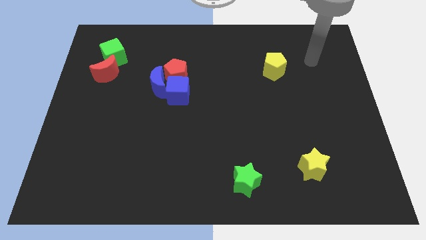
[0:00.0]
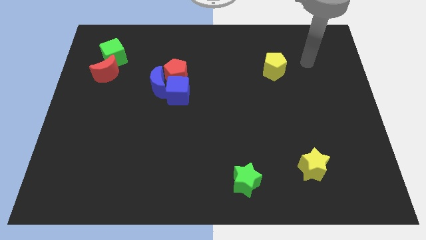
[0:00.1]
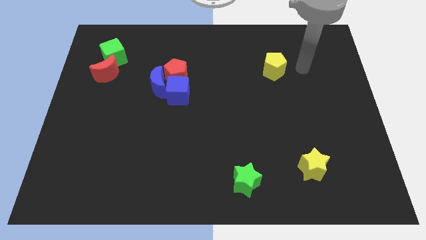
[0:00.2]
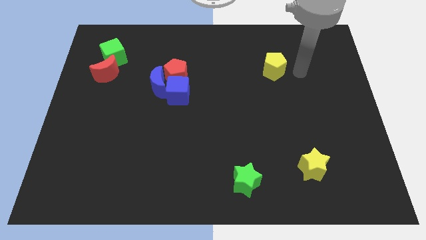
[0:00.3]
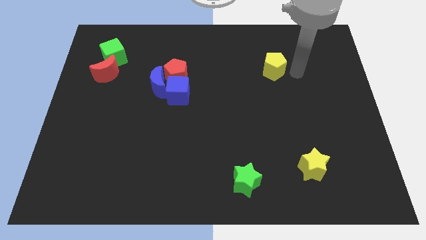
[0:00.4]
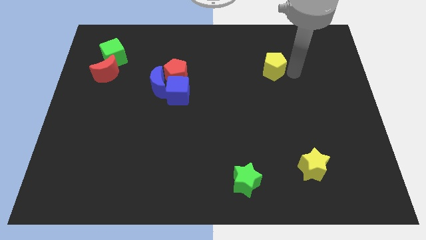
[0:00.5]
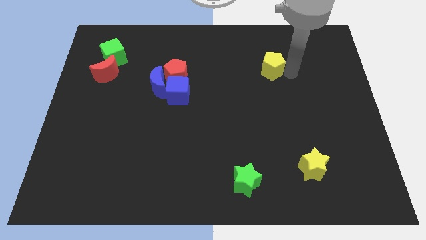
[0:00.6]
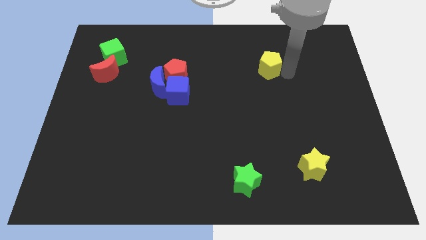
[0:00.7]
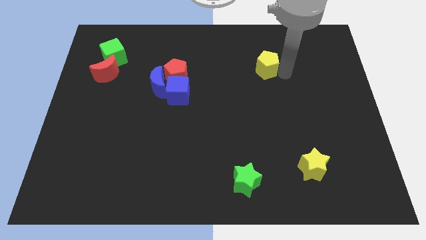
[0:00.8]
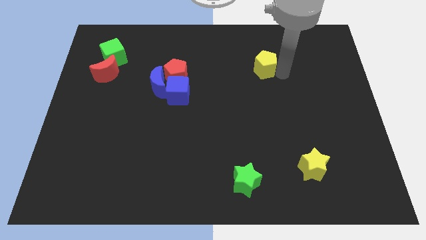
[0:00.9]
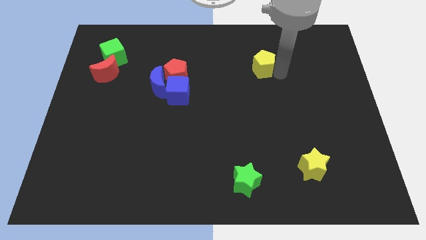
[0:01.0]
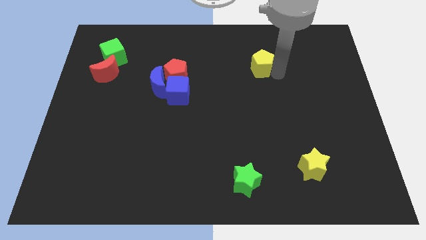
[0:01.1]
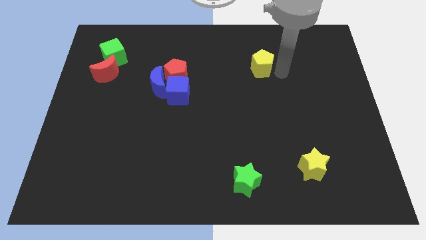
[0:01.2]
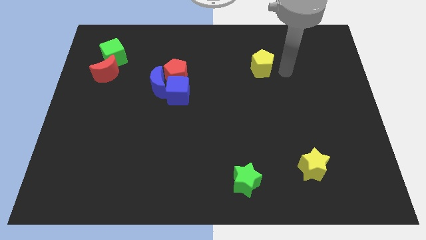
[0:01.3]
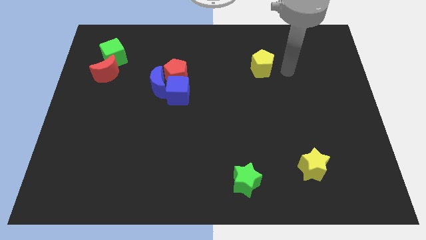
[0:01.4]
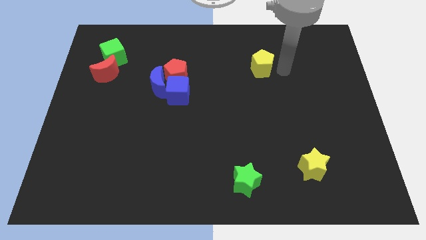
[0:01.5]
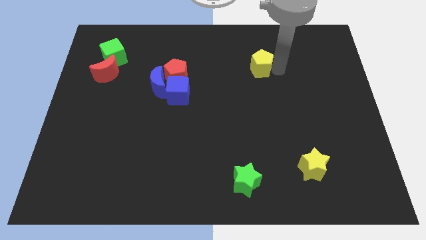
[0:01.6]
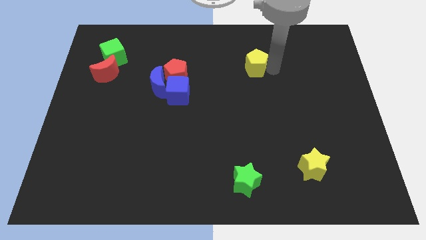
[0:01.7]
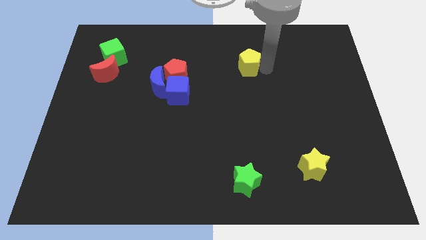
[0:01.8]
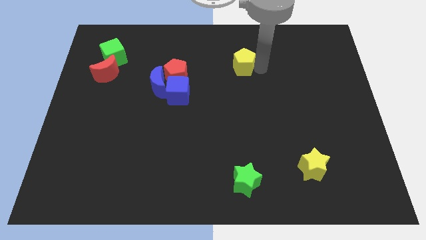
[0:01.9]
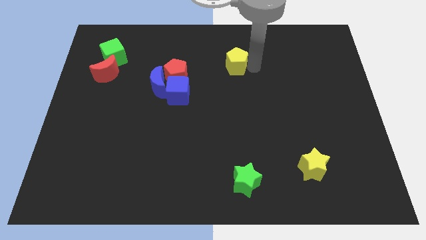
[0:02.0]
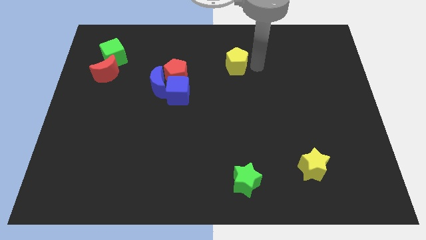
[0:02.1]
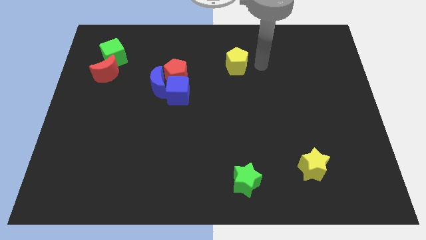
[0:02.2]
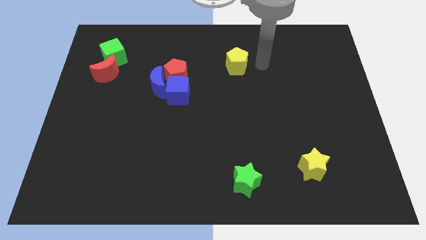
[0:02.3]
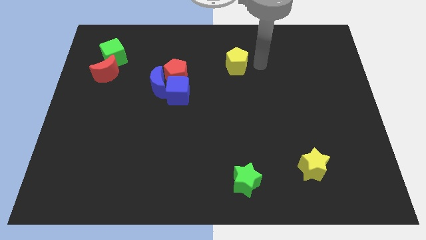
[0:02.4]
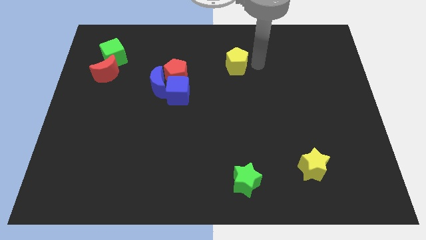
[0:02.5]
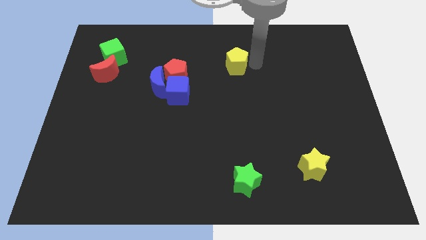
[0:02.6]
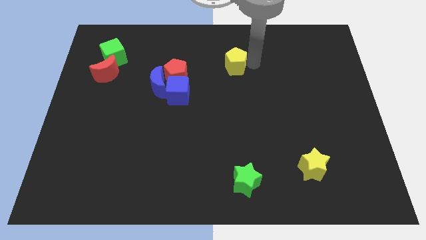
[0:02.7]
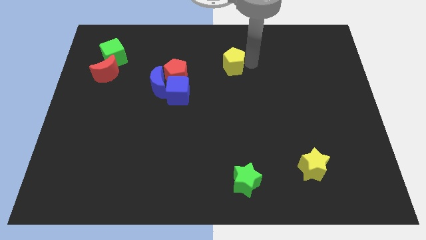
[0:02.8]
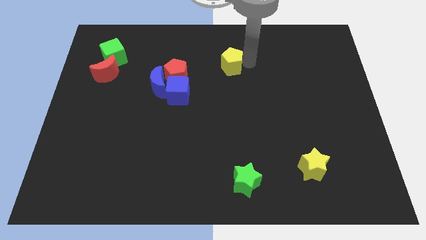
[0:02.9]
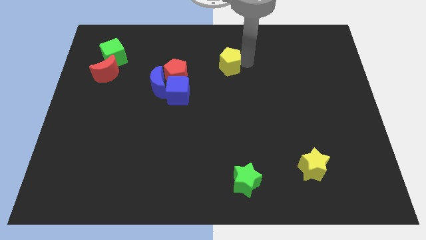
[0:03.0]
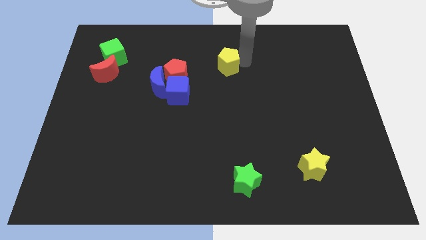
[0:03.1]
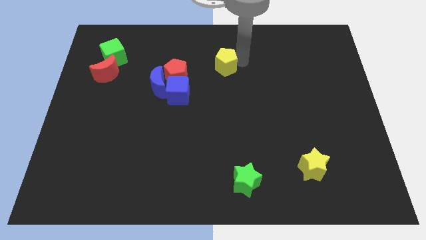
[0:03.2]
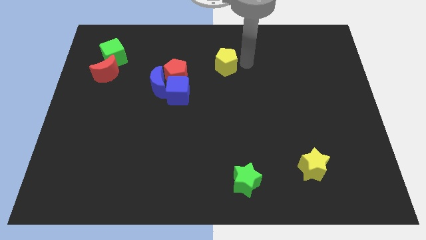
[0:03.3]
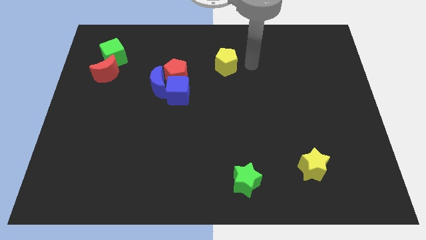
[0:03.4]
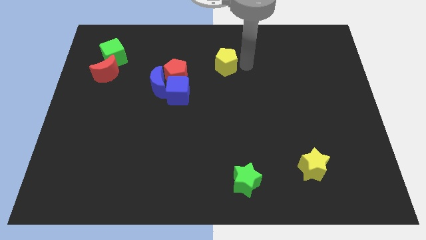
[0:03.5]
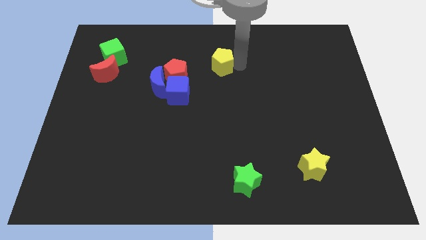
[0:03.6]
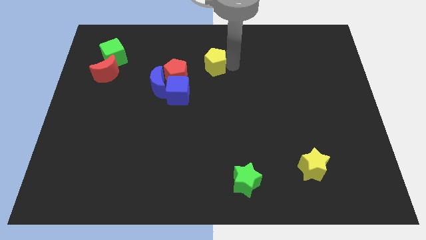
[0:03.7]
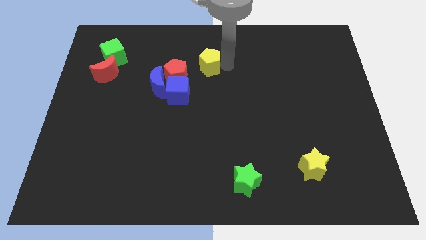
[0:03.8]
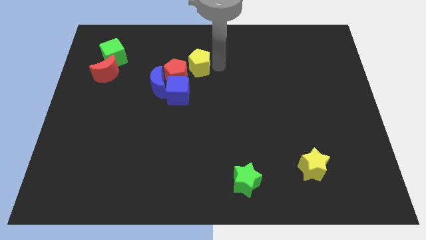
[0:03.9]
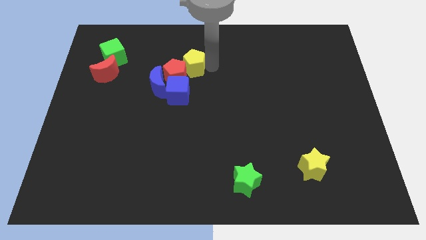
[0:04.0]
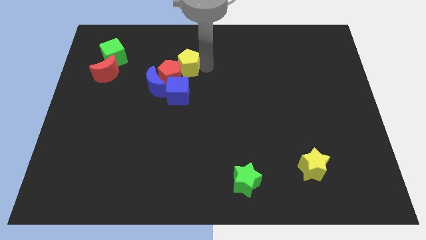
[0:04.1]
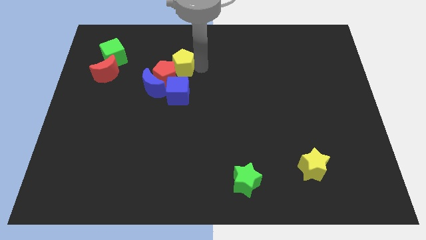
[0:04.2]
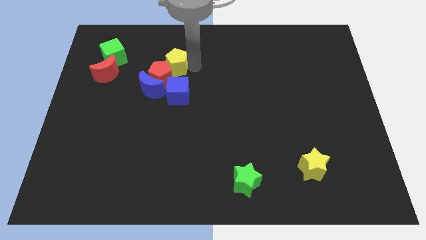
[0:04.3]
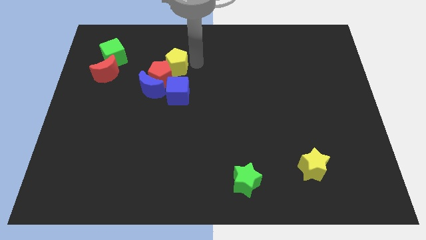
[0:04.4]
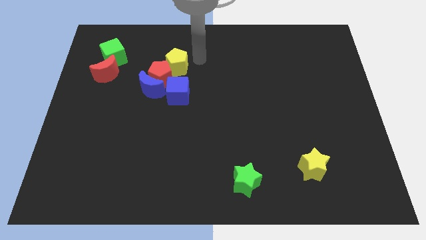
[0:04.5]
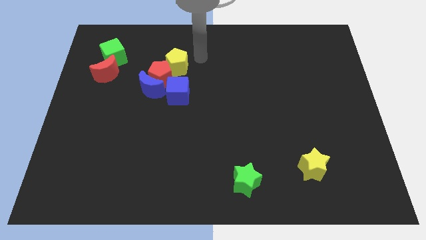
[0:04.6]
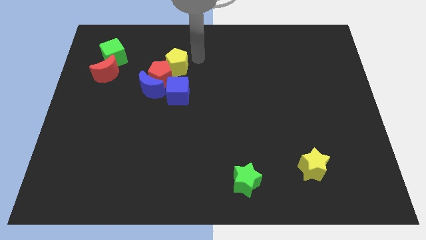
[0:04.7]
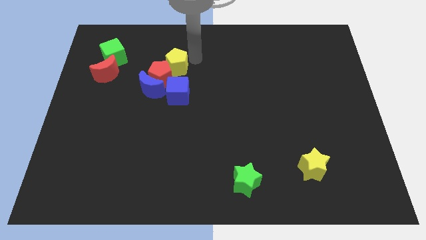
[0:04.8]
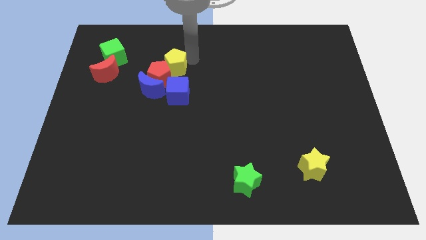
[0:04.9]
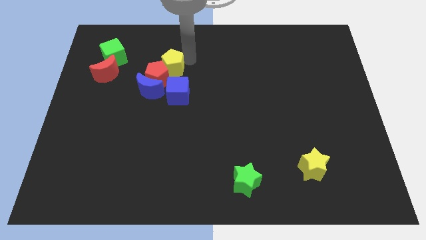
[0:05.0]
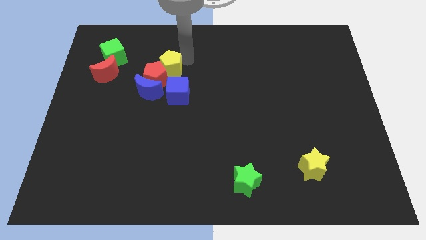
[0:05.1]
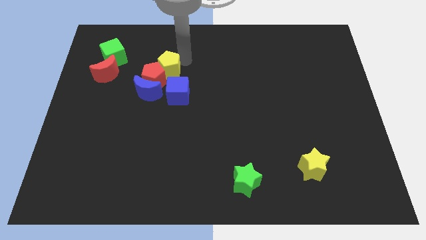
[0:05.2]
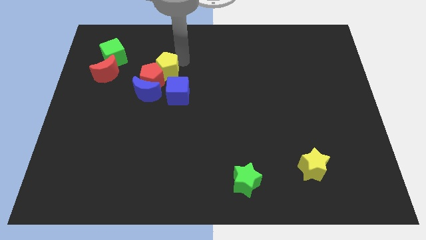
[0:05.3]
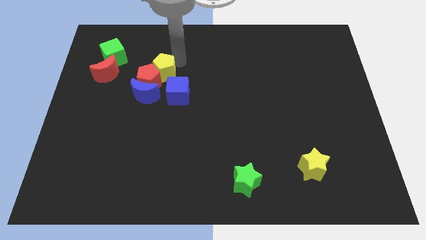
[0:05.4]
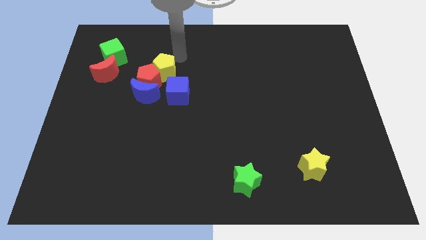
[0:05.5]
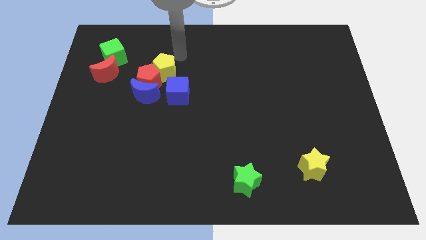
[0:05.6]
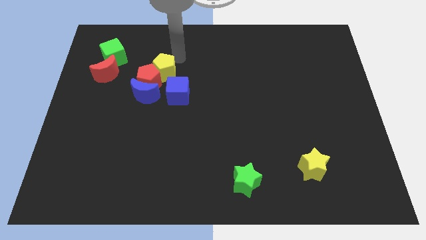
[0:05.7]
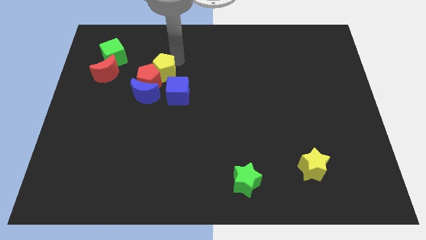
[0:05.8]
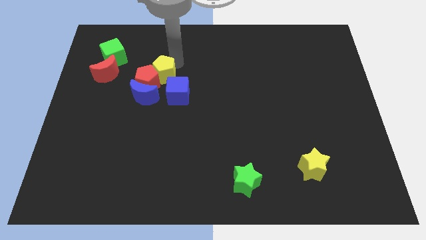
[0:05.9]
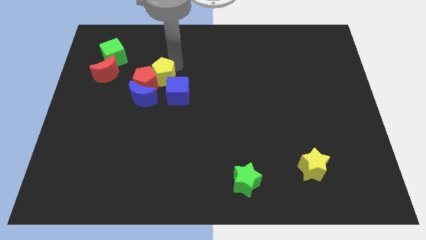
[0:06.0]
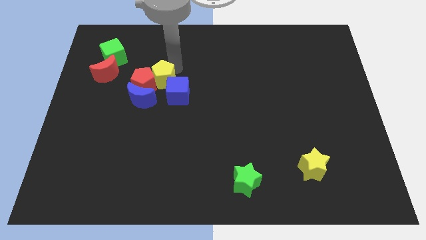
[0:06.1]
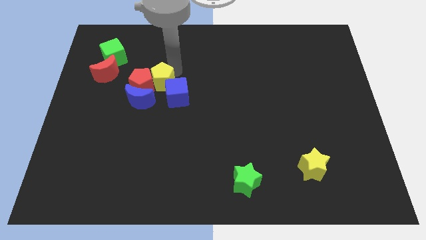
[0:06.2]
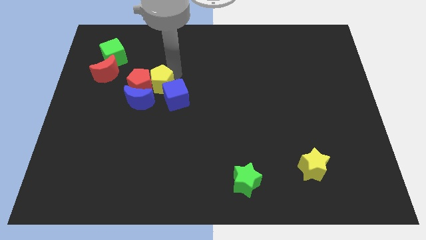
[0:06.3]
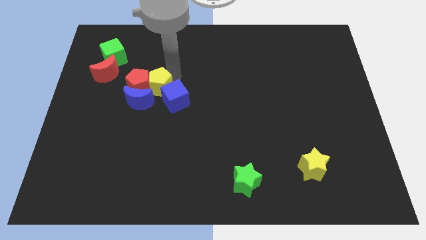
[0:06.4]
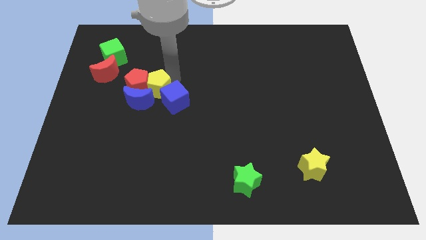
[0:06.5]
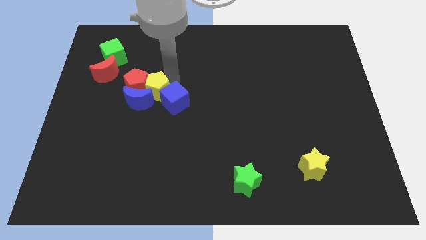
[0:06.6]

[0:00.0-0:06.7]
put the yellow pentagon towards the blue moon

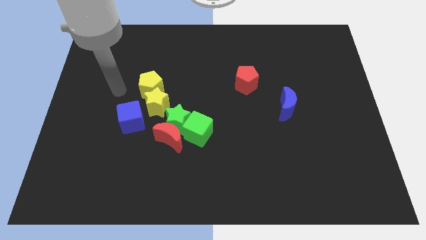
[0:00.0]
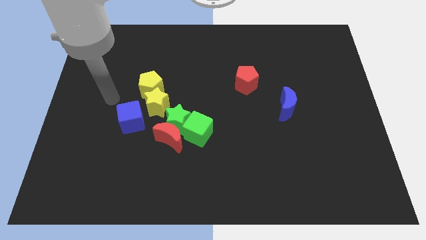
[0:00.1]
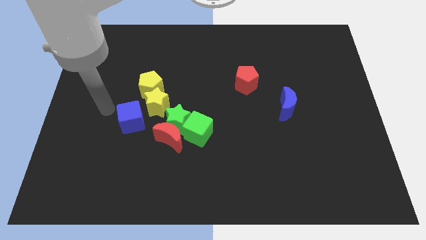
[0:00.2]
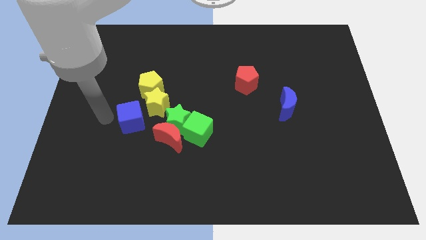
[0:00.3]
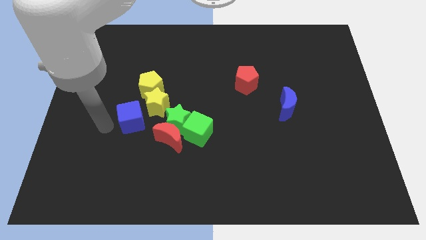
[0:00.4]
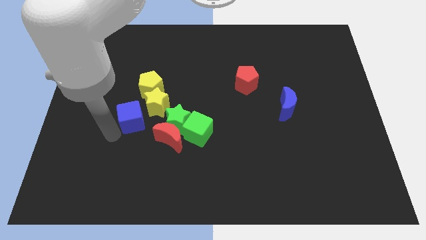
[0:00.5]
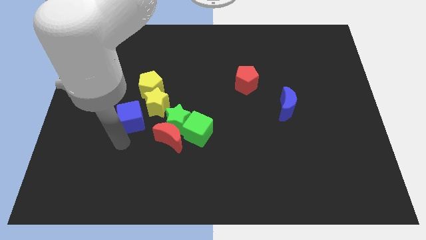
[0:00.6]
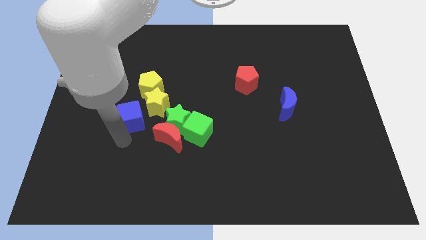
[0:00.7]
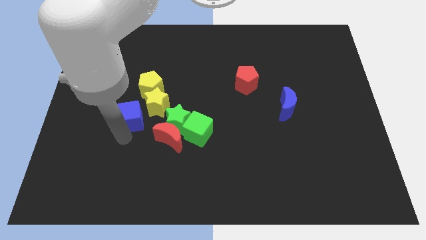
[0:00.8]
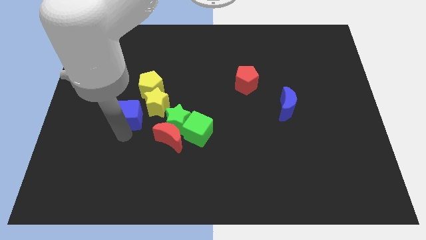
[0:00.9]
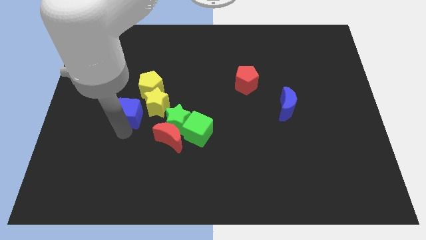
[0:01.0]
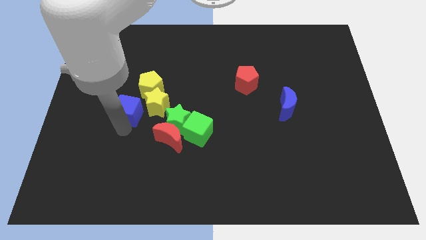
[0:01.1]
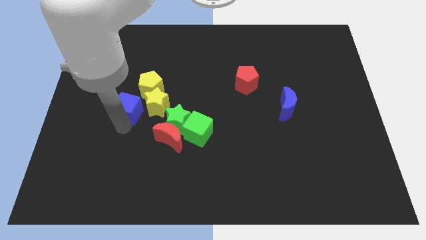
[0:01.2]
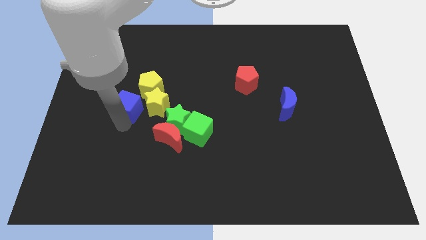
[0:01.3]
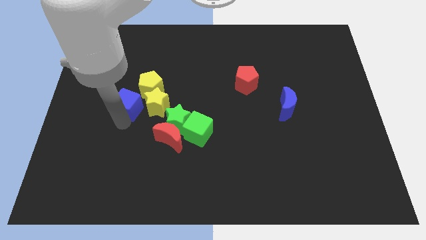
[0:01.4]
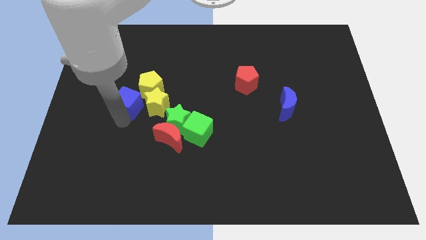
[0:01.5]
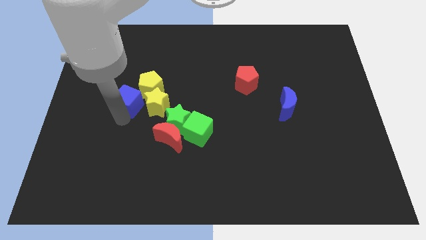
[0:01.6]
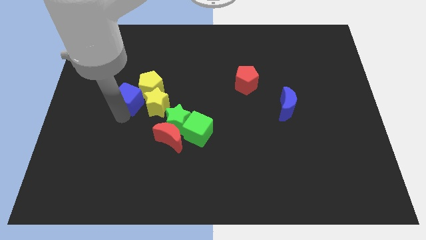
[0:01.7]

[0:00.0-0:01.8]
slide the blue cube towards the yellow pentagon
